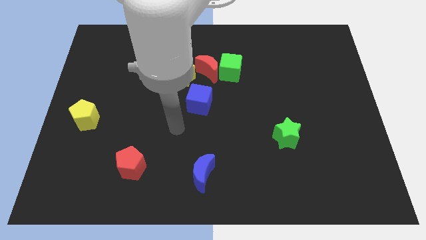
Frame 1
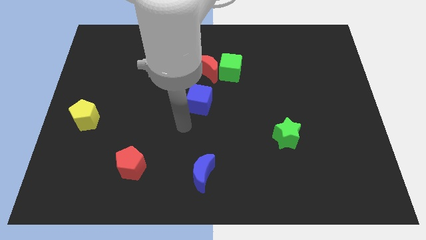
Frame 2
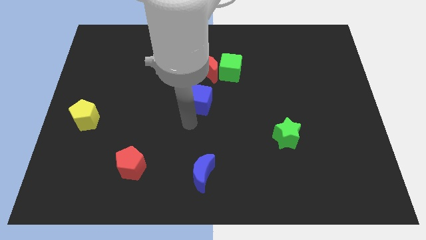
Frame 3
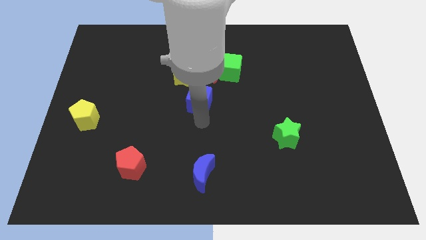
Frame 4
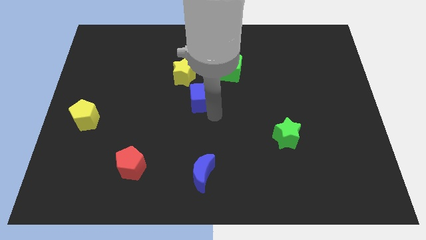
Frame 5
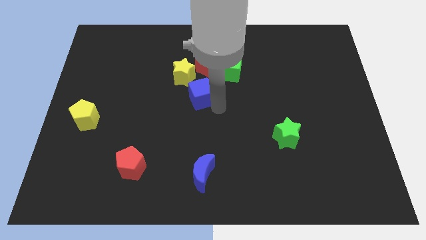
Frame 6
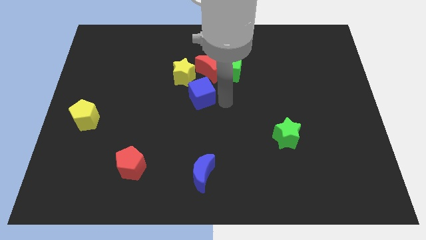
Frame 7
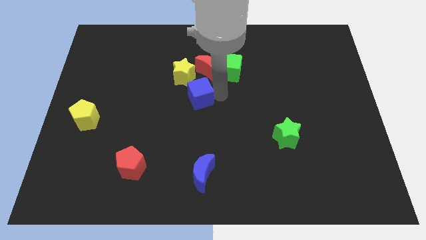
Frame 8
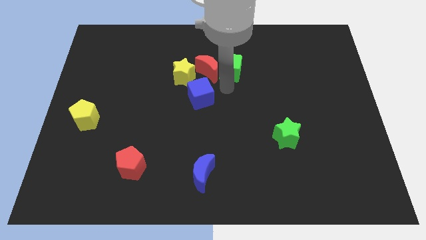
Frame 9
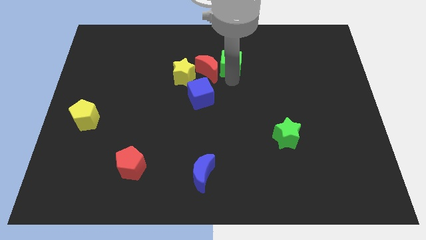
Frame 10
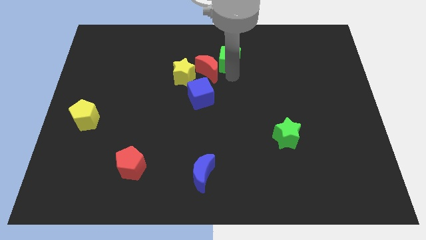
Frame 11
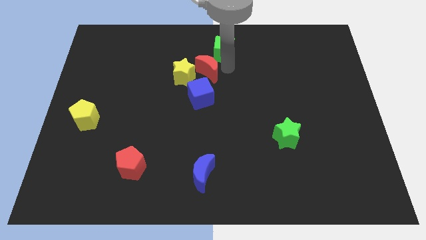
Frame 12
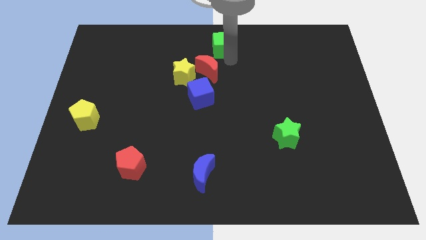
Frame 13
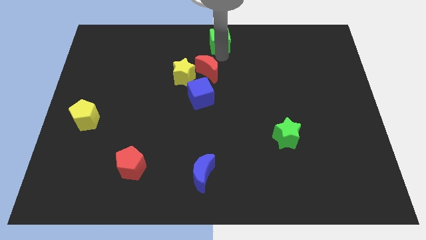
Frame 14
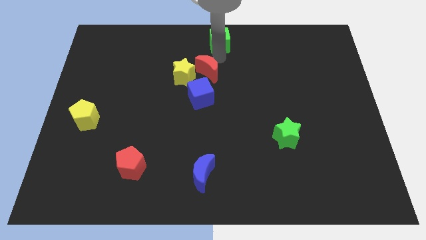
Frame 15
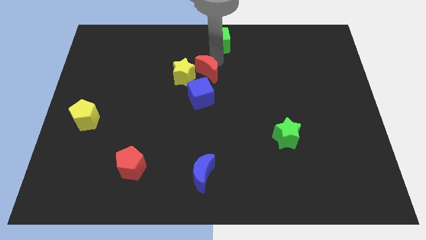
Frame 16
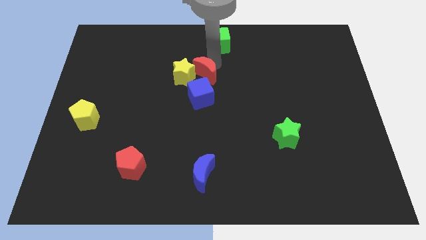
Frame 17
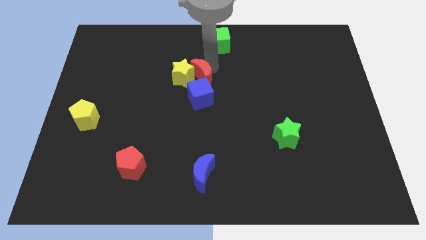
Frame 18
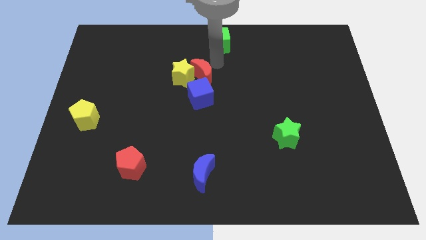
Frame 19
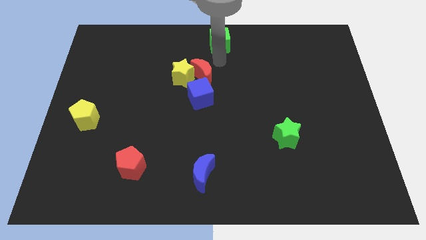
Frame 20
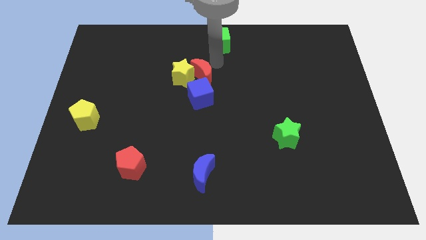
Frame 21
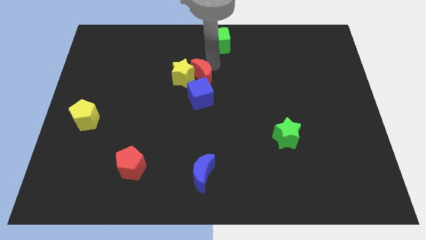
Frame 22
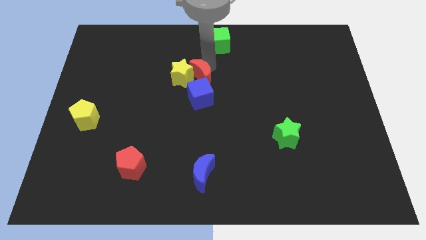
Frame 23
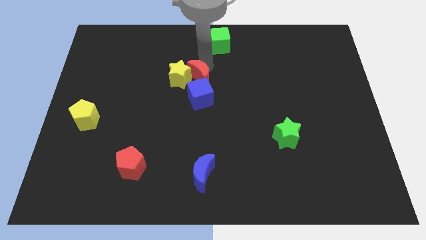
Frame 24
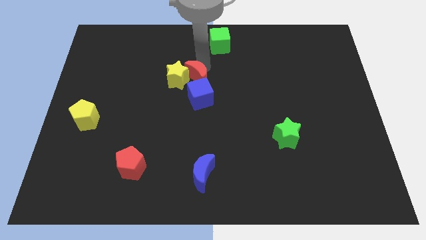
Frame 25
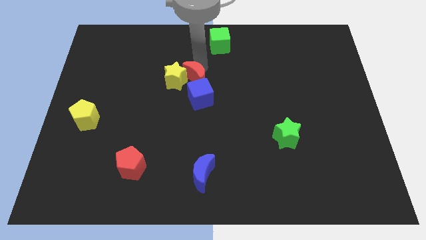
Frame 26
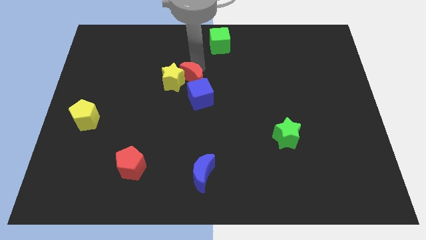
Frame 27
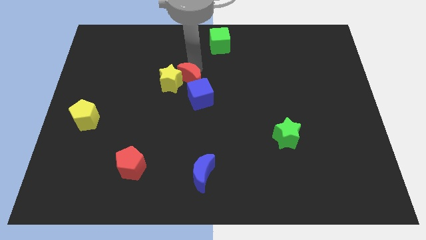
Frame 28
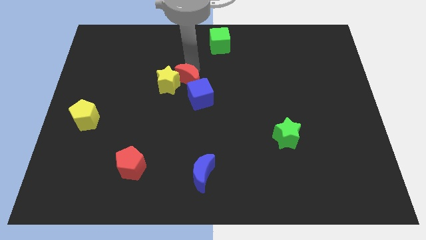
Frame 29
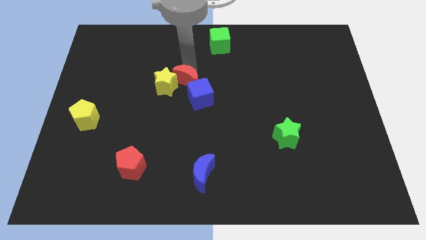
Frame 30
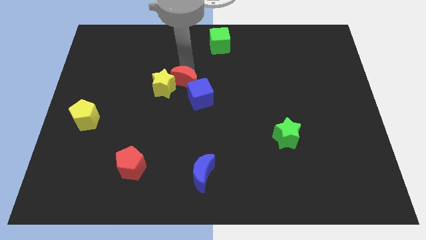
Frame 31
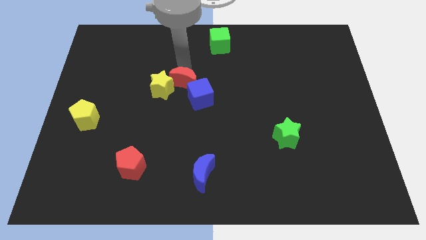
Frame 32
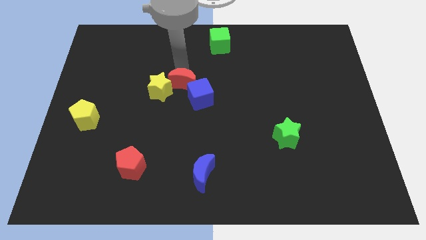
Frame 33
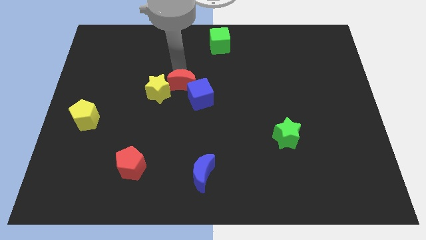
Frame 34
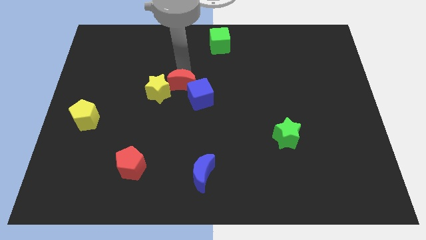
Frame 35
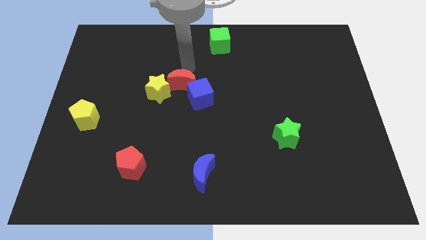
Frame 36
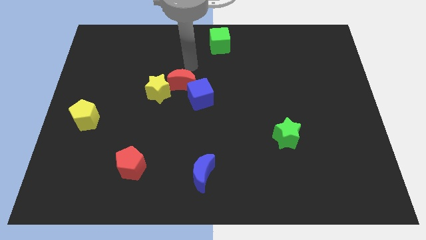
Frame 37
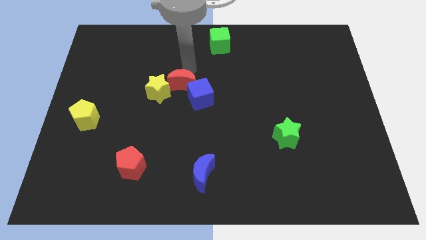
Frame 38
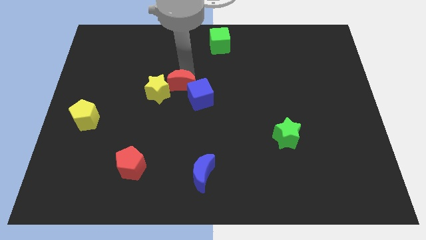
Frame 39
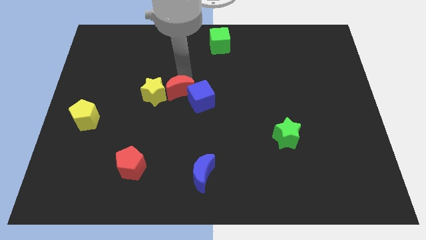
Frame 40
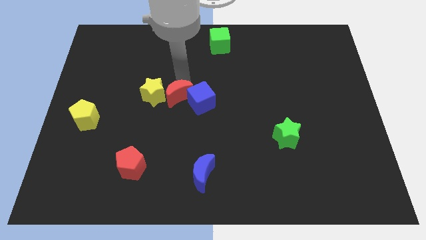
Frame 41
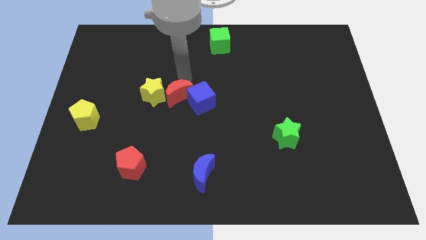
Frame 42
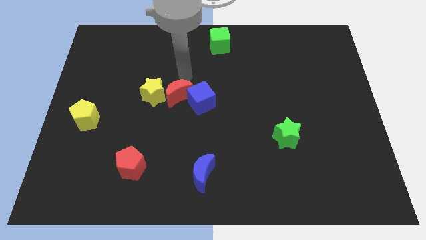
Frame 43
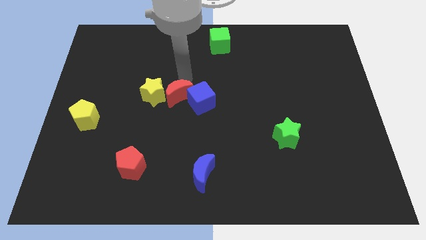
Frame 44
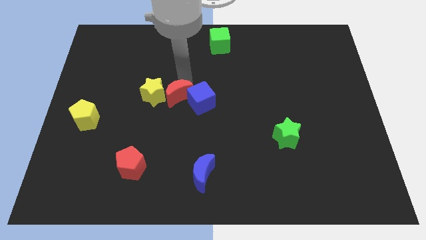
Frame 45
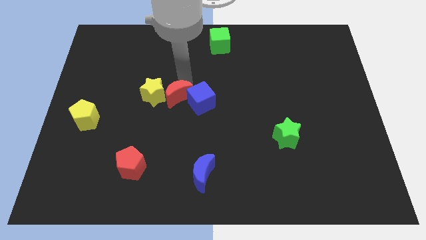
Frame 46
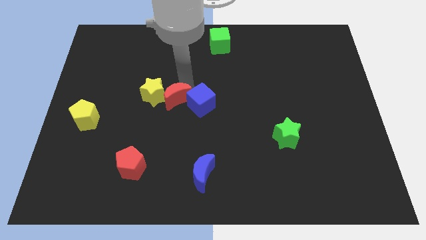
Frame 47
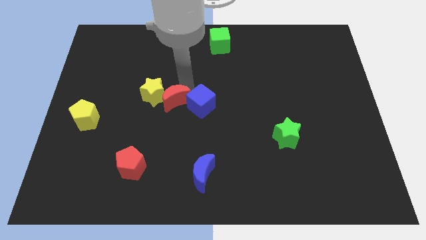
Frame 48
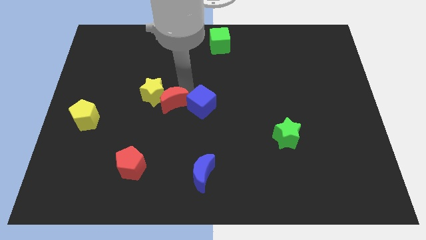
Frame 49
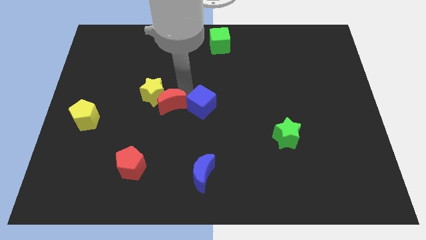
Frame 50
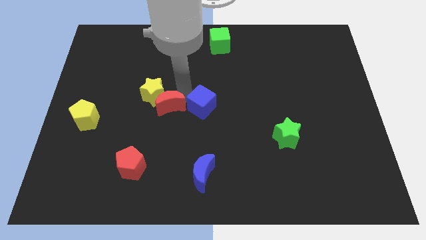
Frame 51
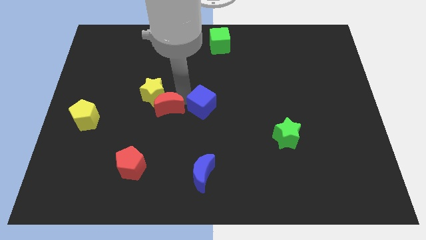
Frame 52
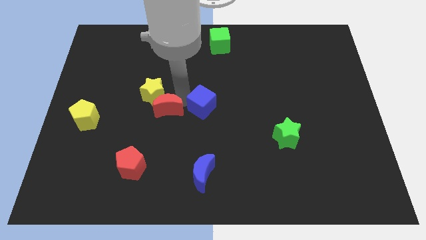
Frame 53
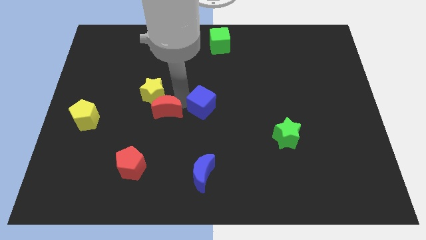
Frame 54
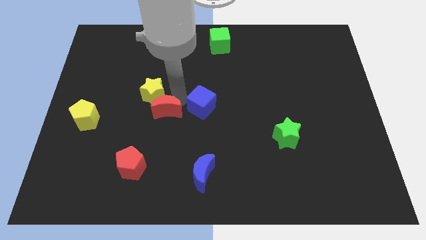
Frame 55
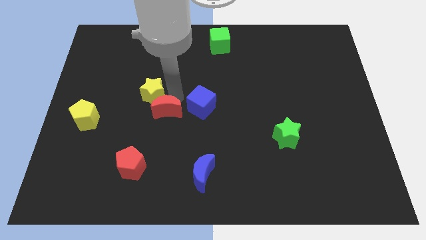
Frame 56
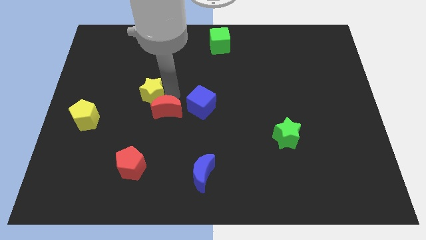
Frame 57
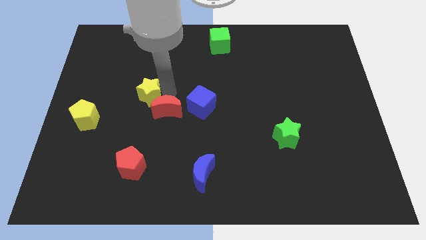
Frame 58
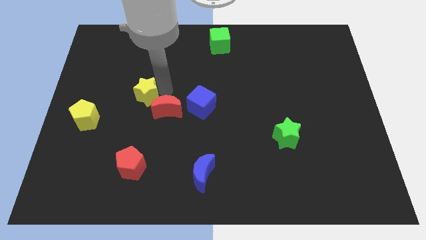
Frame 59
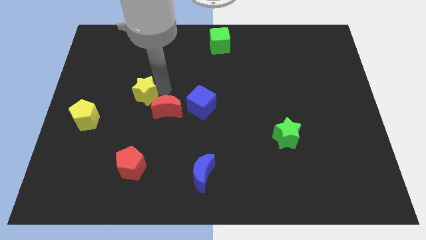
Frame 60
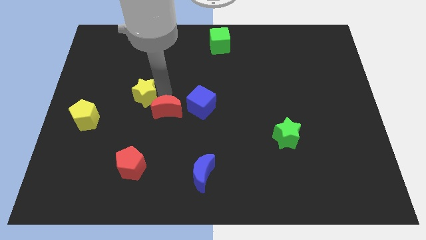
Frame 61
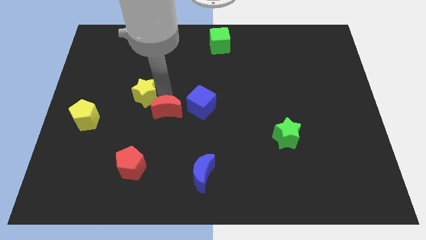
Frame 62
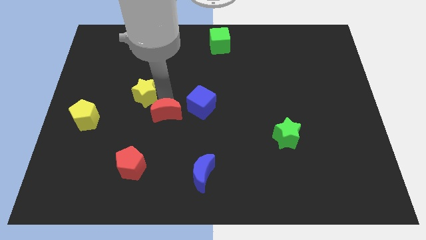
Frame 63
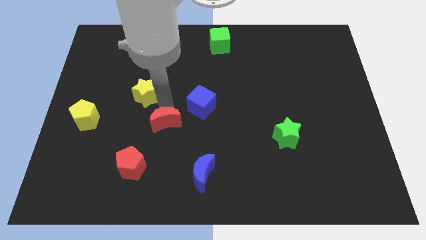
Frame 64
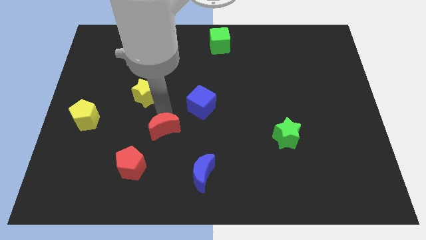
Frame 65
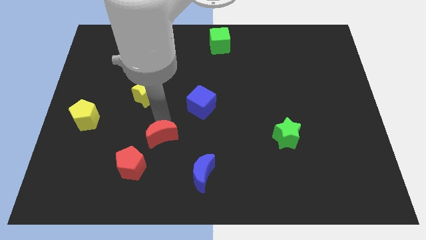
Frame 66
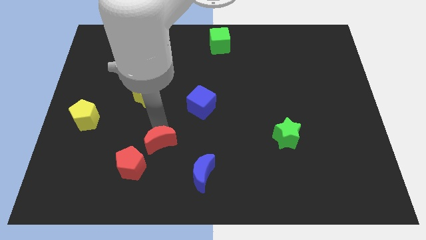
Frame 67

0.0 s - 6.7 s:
move the red moon diagonally up and to the left of the blue moon
